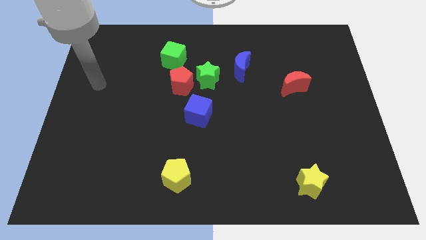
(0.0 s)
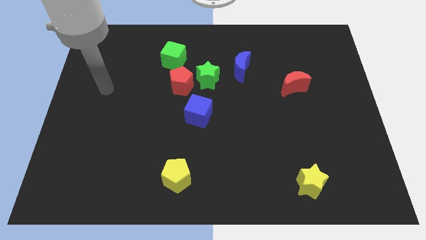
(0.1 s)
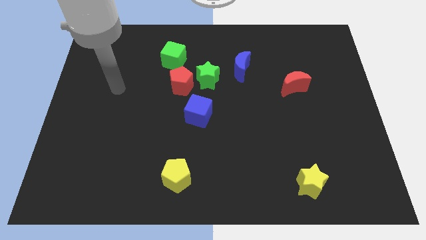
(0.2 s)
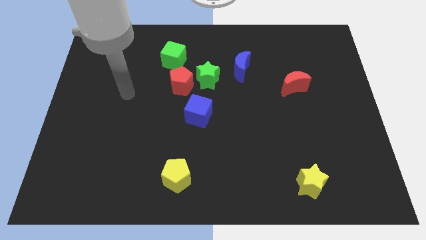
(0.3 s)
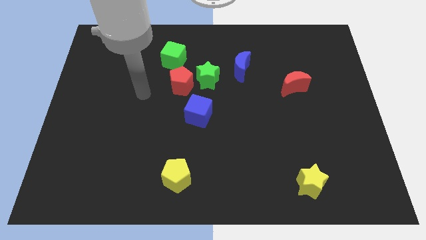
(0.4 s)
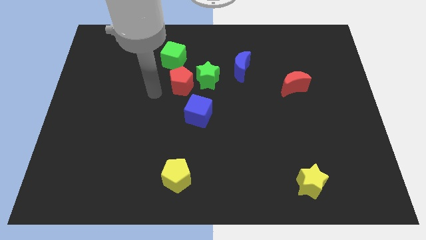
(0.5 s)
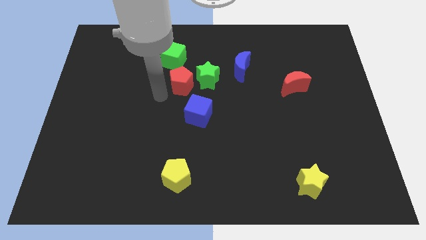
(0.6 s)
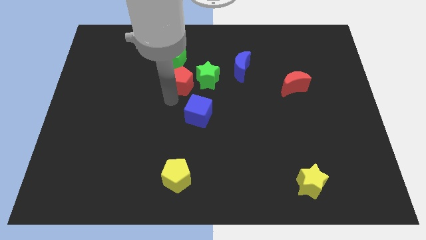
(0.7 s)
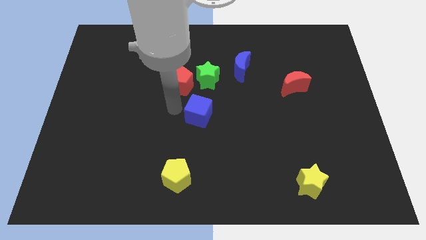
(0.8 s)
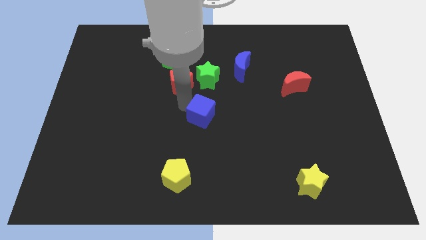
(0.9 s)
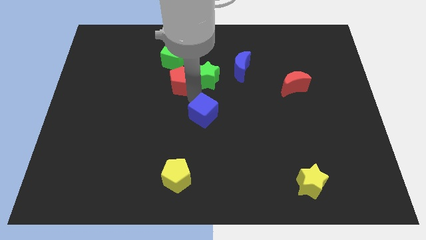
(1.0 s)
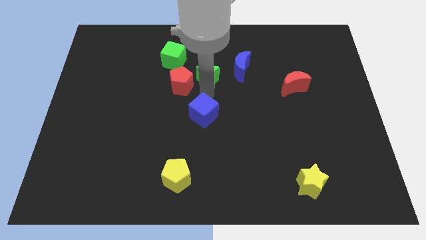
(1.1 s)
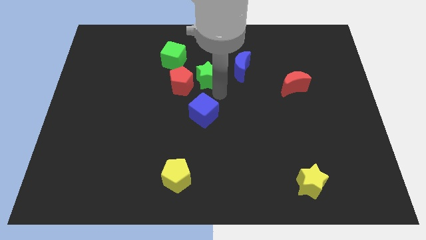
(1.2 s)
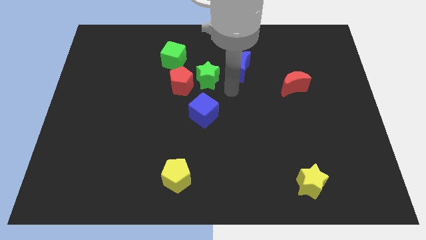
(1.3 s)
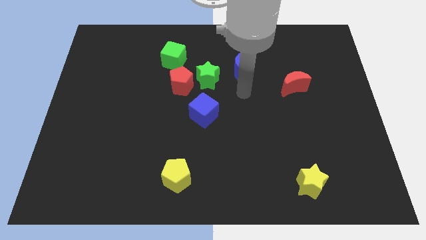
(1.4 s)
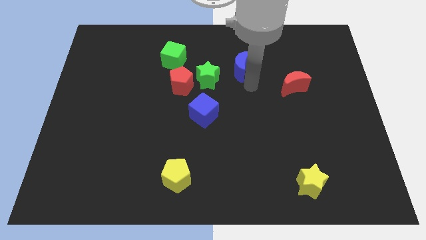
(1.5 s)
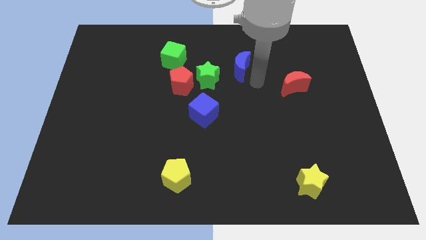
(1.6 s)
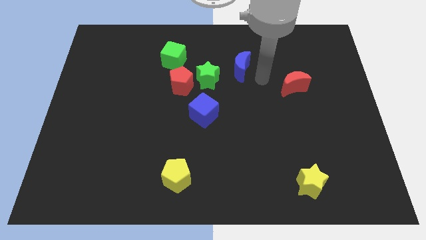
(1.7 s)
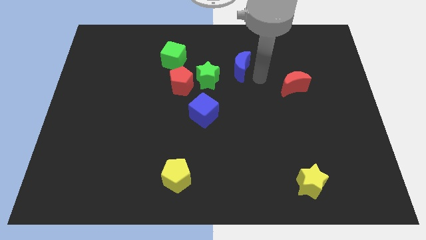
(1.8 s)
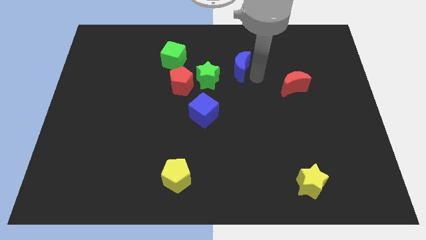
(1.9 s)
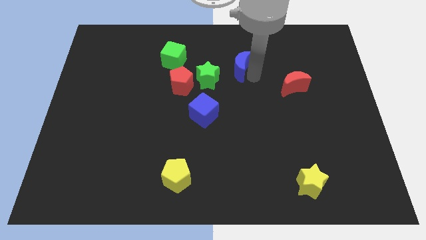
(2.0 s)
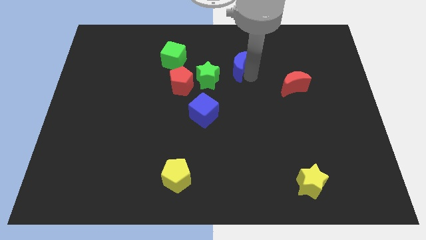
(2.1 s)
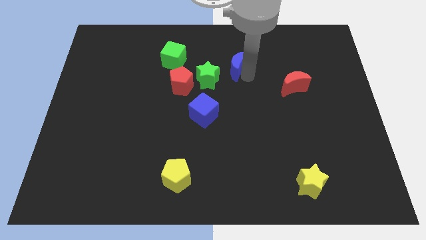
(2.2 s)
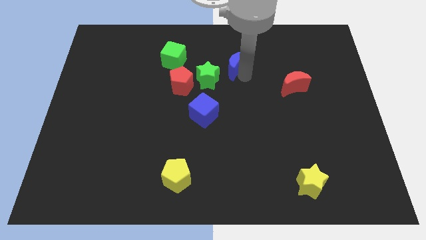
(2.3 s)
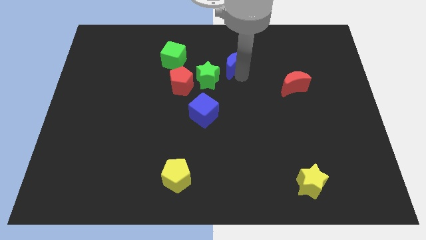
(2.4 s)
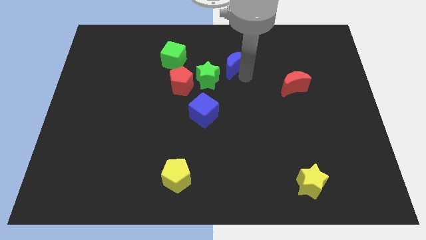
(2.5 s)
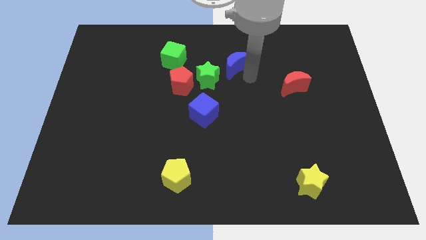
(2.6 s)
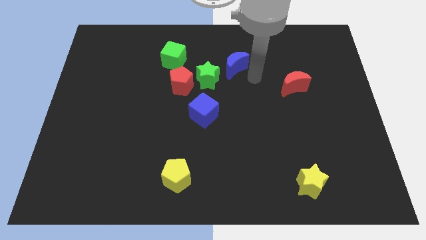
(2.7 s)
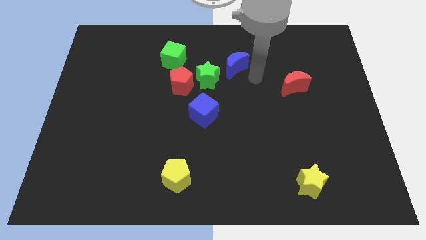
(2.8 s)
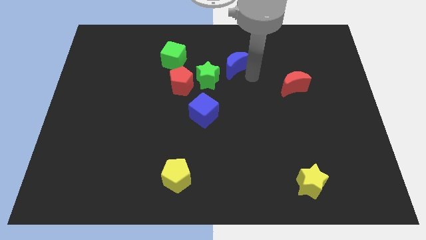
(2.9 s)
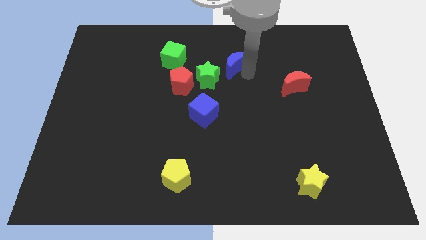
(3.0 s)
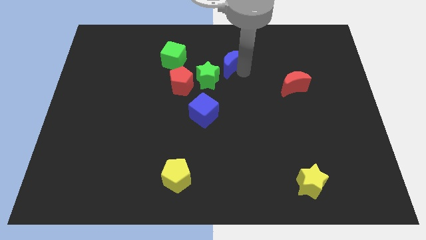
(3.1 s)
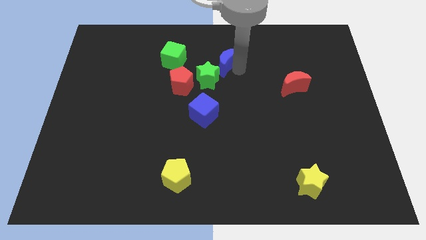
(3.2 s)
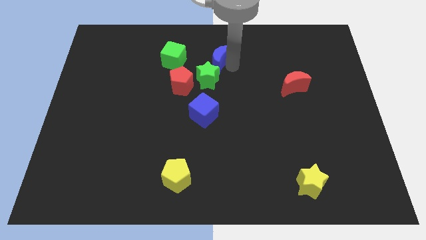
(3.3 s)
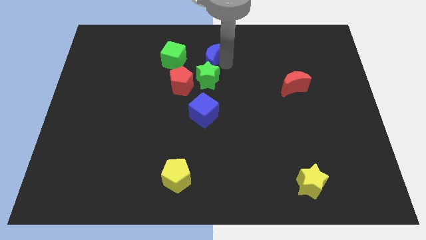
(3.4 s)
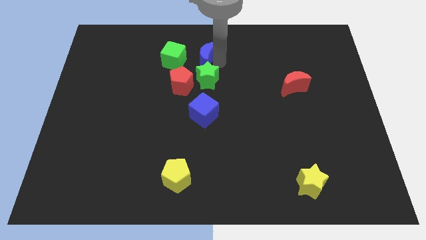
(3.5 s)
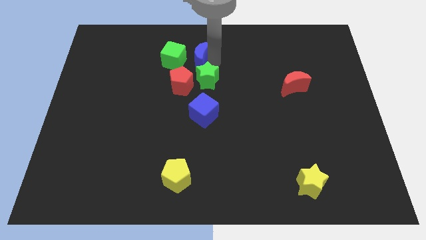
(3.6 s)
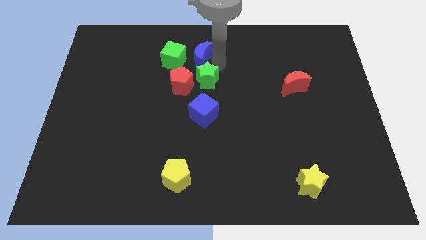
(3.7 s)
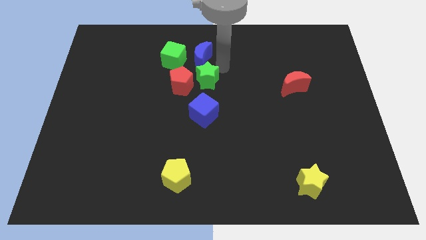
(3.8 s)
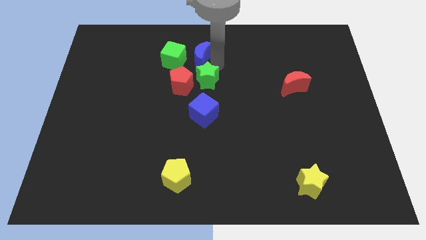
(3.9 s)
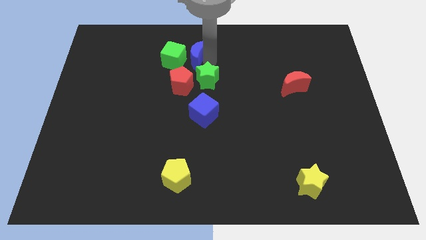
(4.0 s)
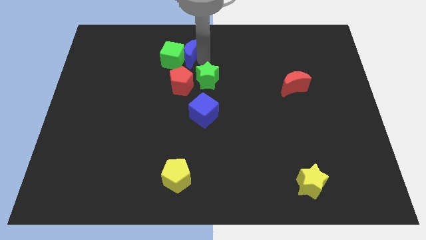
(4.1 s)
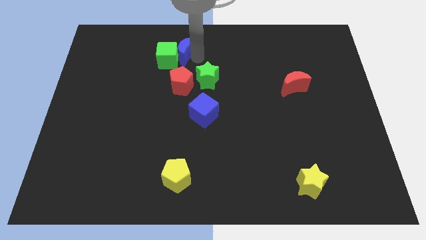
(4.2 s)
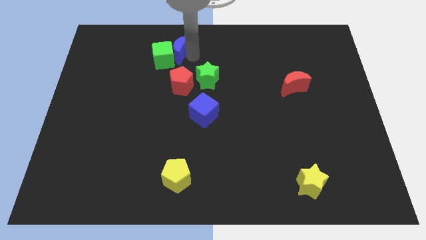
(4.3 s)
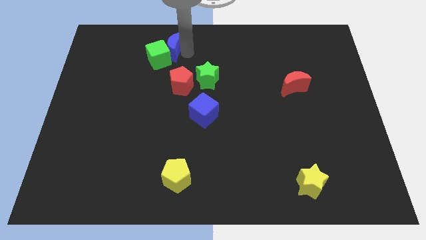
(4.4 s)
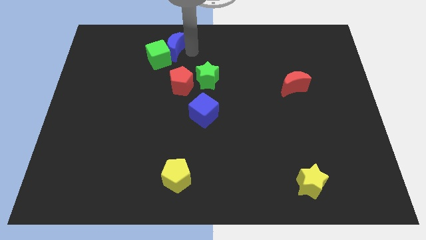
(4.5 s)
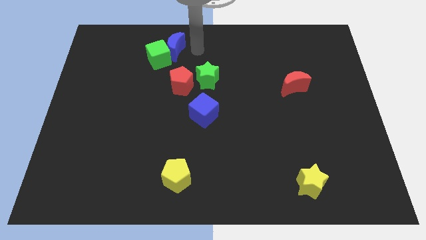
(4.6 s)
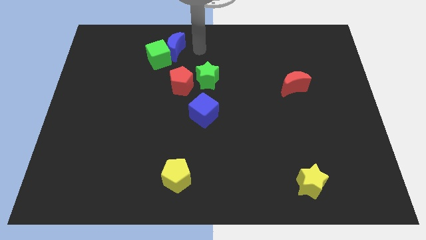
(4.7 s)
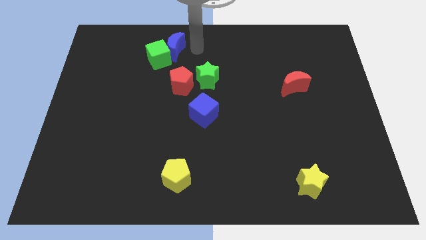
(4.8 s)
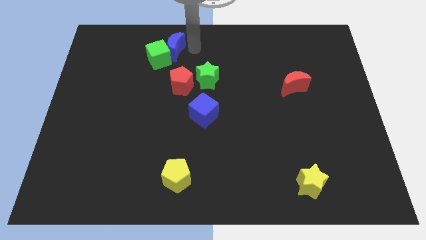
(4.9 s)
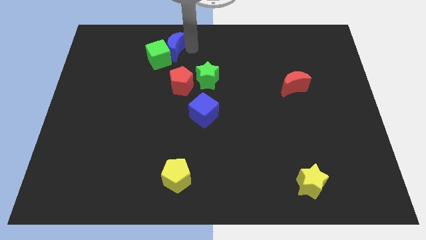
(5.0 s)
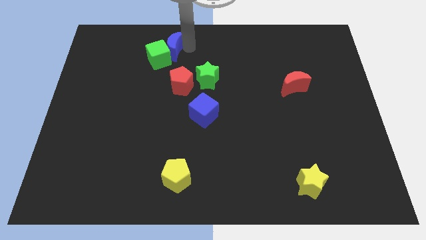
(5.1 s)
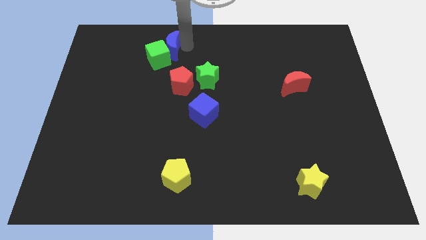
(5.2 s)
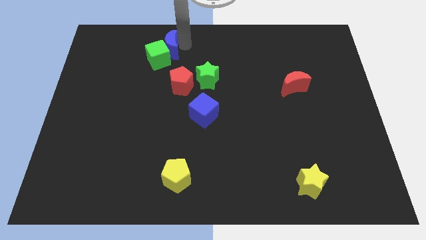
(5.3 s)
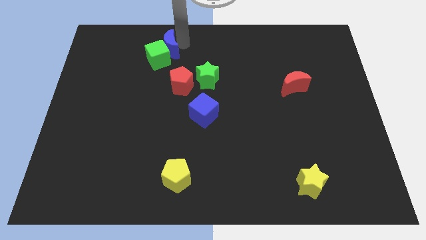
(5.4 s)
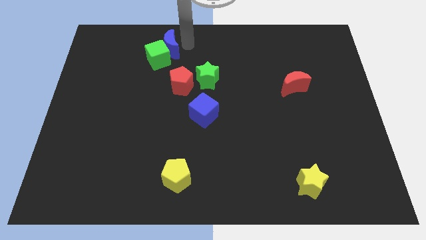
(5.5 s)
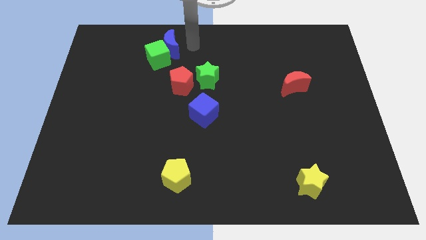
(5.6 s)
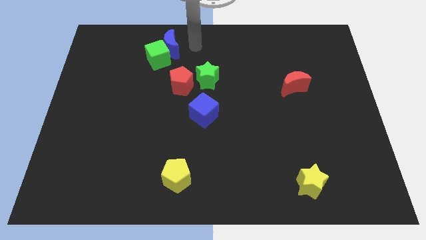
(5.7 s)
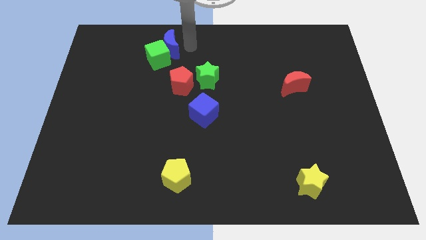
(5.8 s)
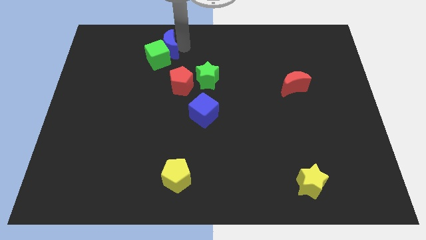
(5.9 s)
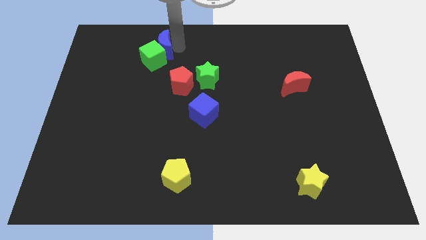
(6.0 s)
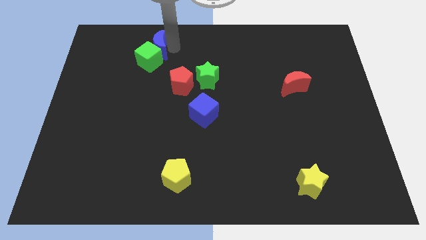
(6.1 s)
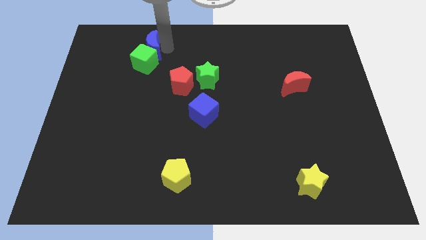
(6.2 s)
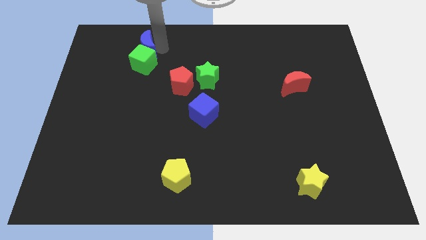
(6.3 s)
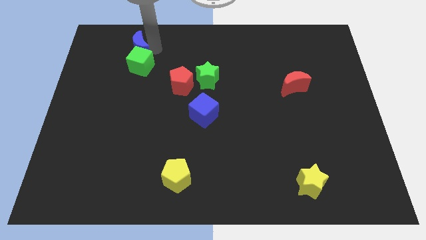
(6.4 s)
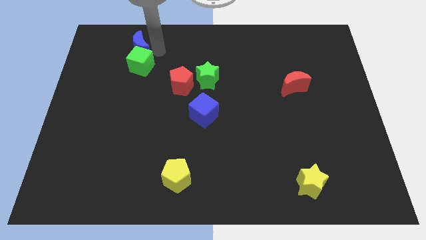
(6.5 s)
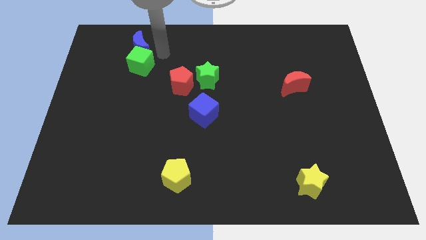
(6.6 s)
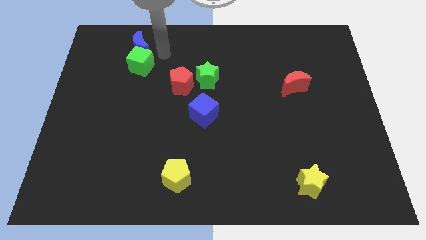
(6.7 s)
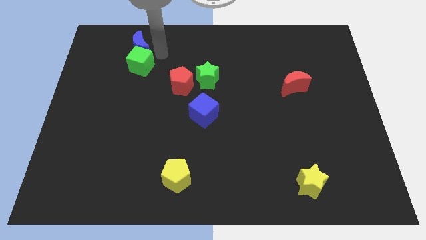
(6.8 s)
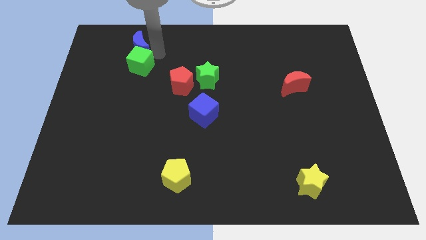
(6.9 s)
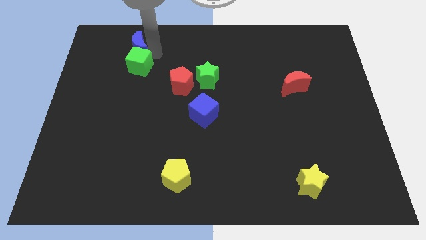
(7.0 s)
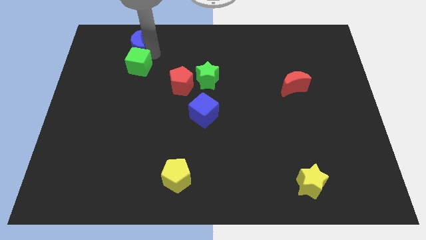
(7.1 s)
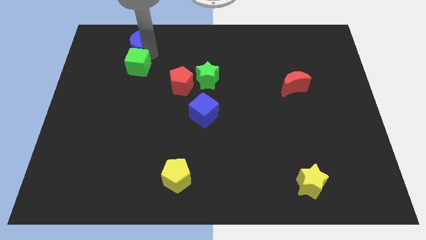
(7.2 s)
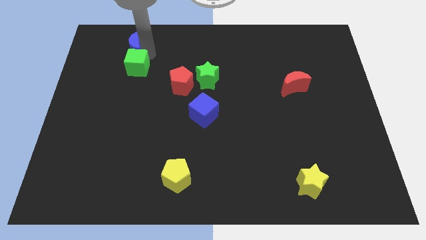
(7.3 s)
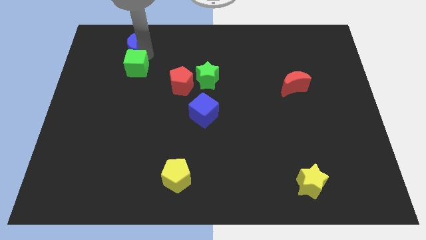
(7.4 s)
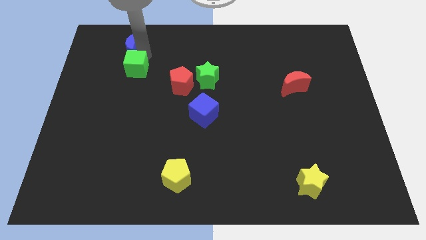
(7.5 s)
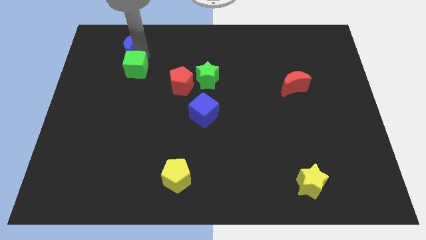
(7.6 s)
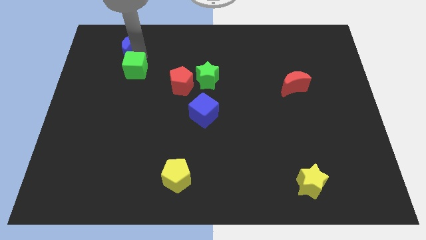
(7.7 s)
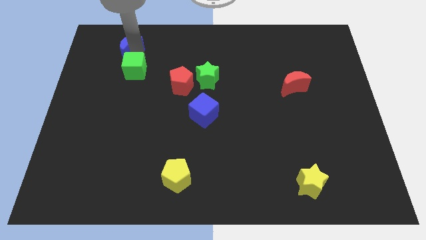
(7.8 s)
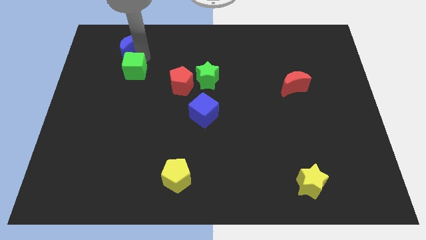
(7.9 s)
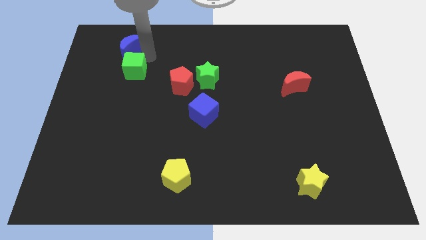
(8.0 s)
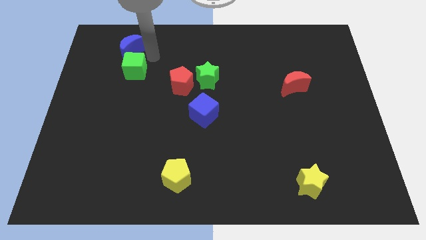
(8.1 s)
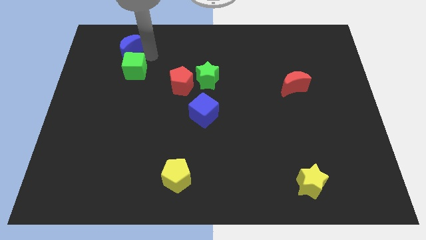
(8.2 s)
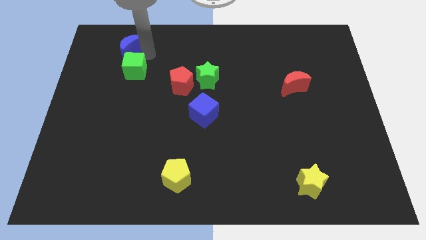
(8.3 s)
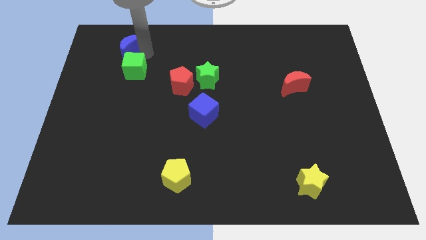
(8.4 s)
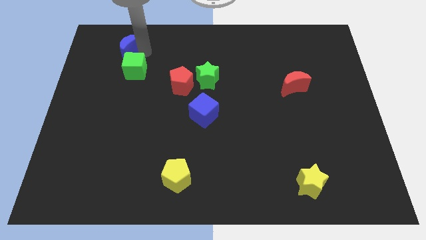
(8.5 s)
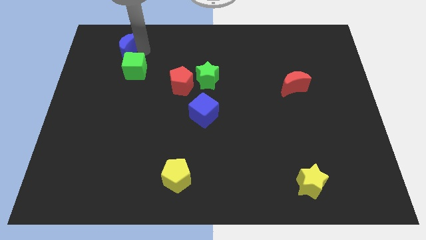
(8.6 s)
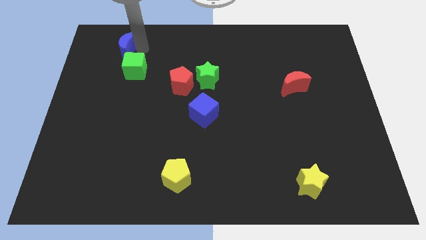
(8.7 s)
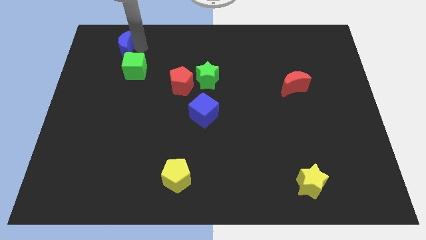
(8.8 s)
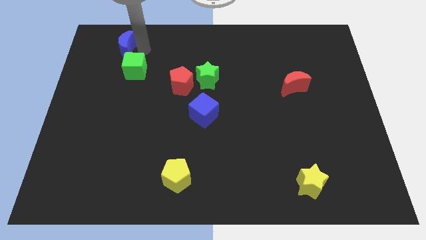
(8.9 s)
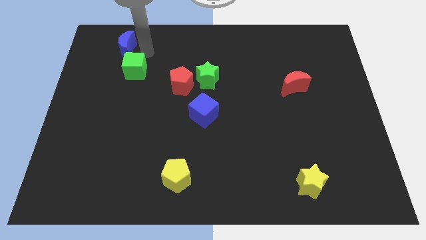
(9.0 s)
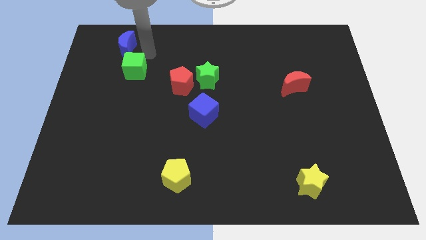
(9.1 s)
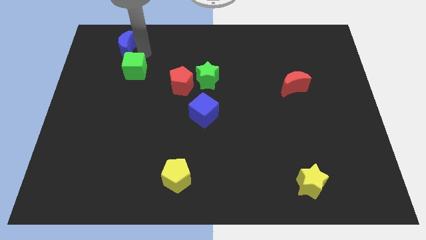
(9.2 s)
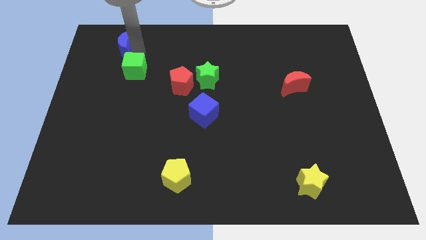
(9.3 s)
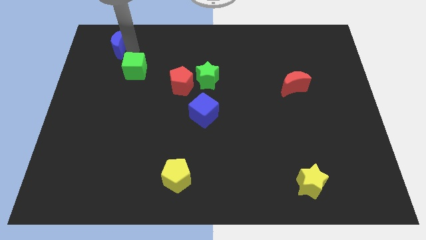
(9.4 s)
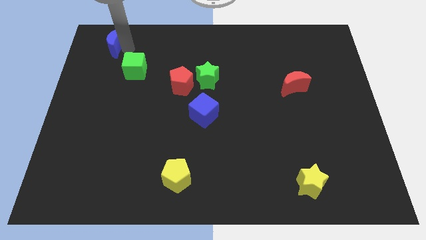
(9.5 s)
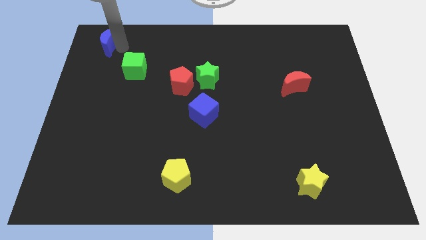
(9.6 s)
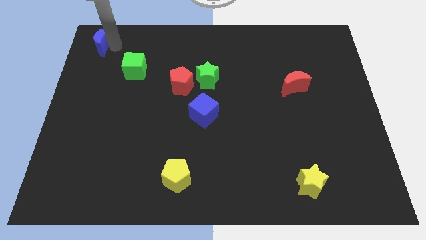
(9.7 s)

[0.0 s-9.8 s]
move the blue moon to the top left
